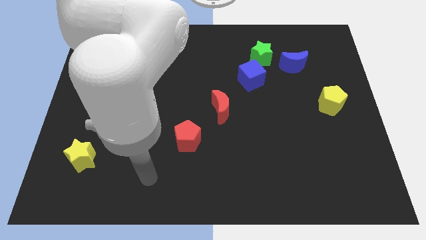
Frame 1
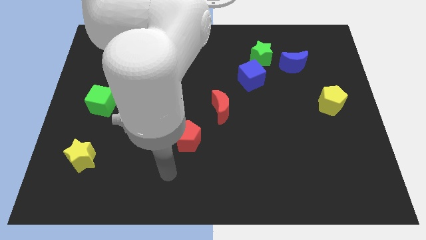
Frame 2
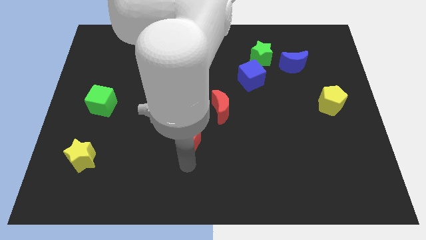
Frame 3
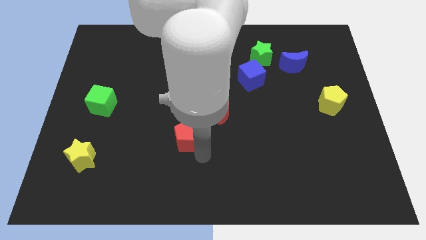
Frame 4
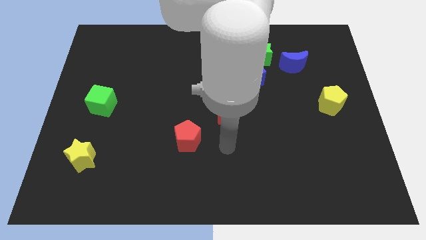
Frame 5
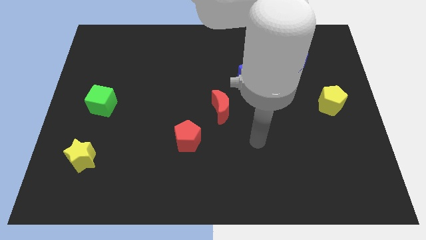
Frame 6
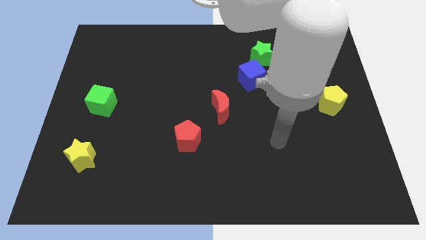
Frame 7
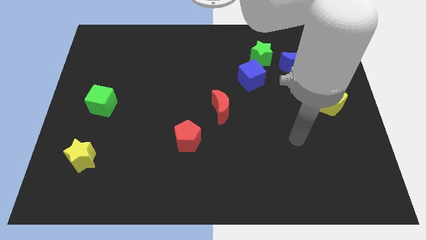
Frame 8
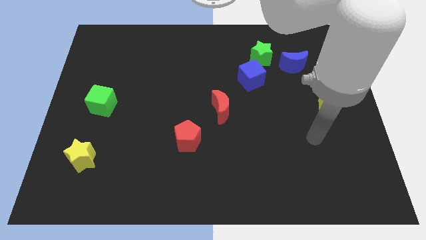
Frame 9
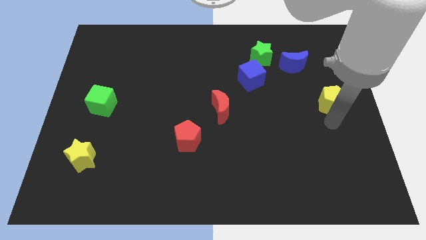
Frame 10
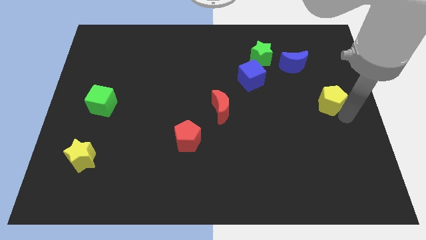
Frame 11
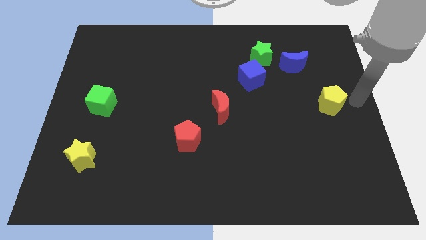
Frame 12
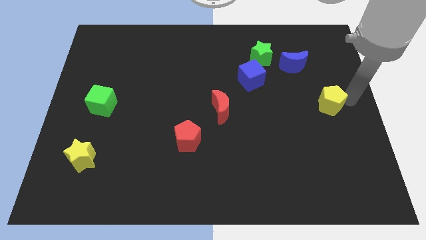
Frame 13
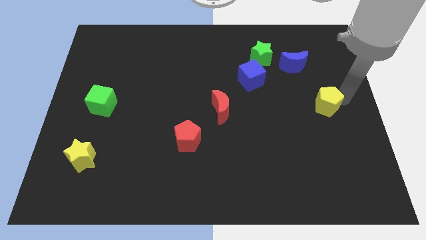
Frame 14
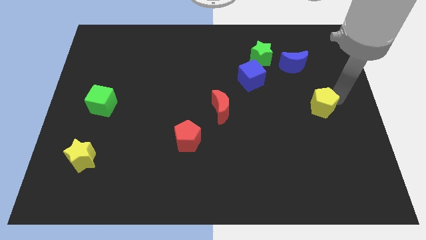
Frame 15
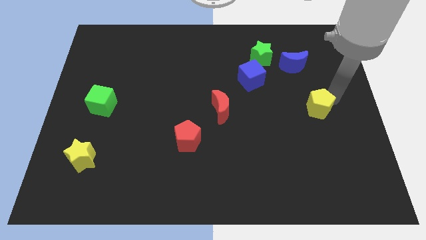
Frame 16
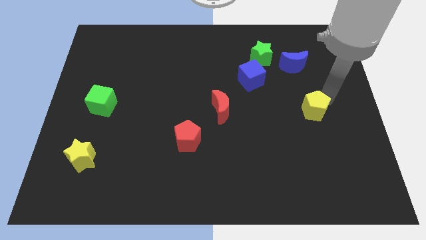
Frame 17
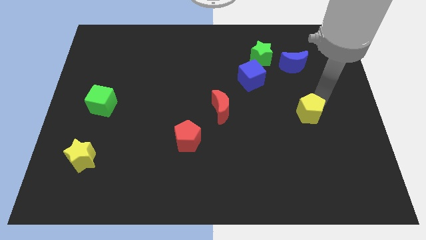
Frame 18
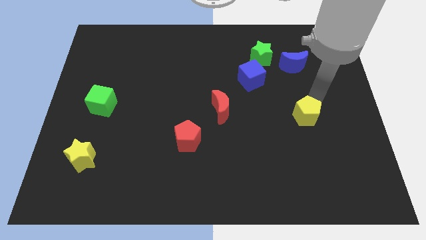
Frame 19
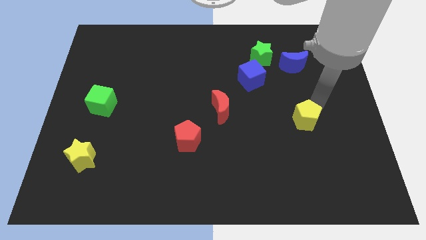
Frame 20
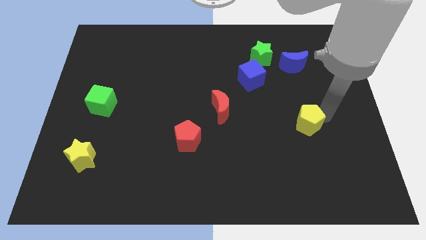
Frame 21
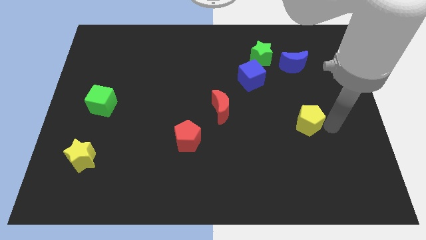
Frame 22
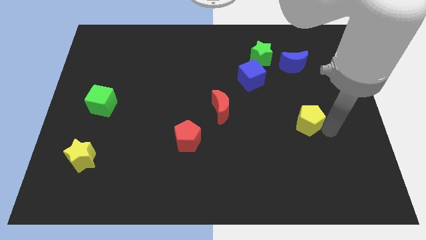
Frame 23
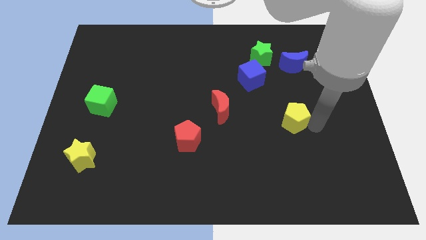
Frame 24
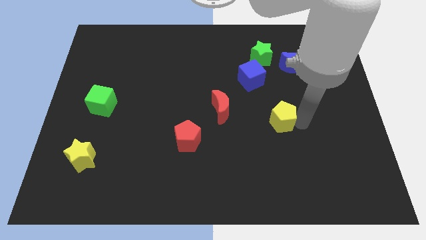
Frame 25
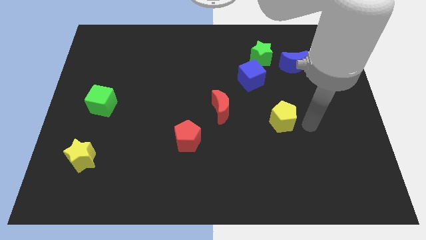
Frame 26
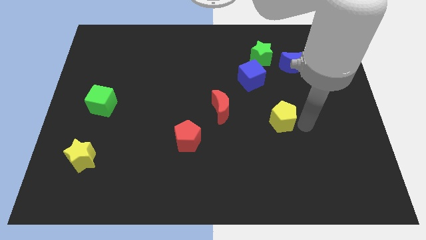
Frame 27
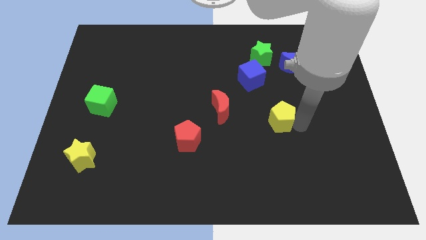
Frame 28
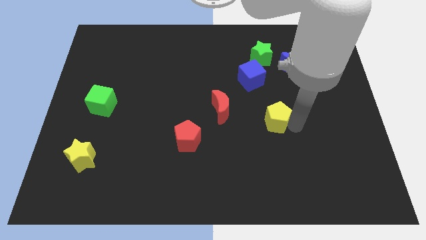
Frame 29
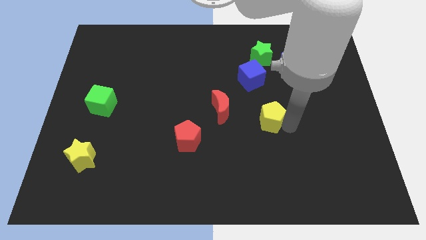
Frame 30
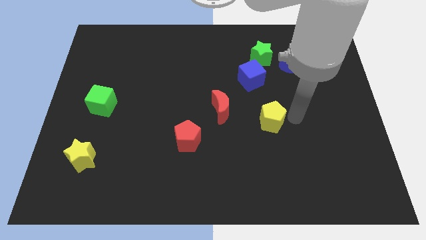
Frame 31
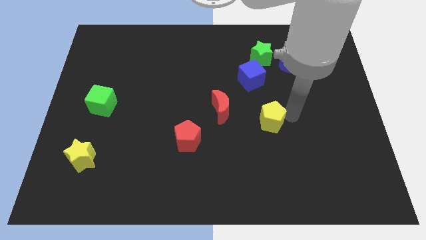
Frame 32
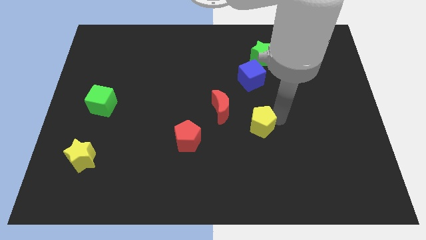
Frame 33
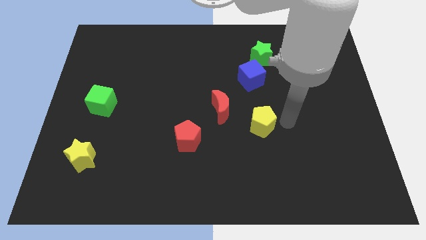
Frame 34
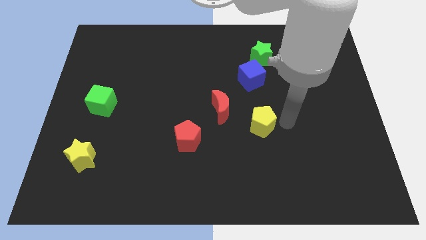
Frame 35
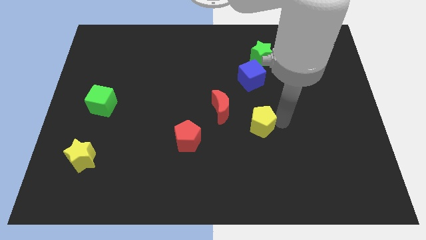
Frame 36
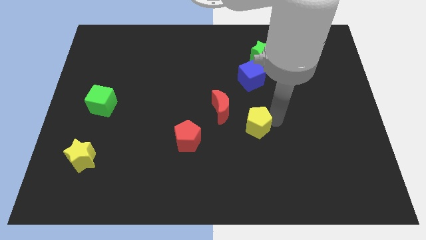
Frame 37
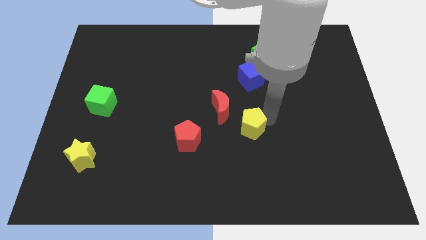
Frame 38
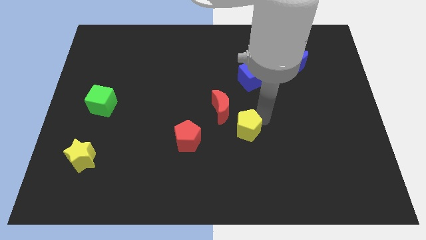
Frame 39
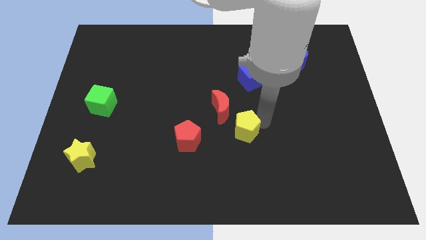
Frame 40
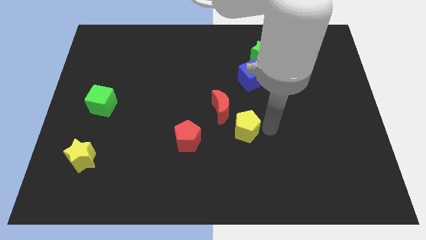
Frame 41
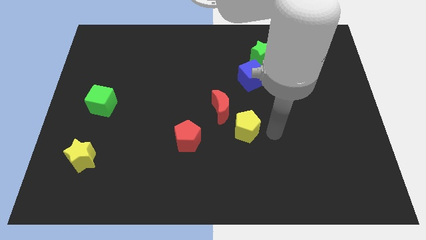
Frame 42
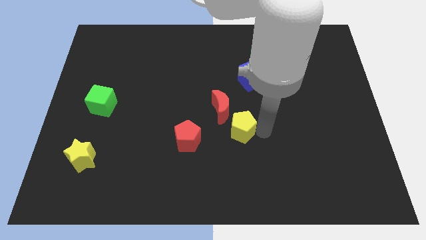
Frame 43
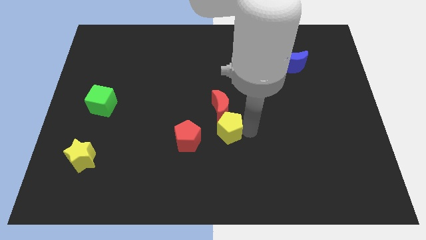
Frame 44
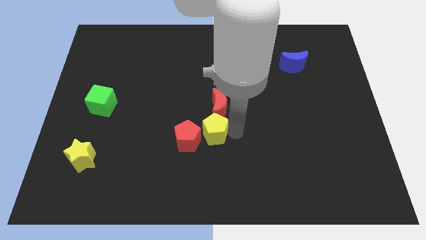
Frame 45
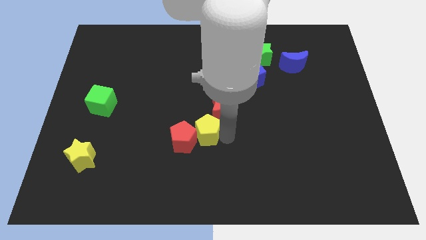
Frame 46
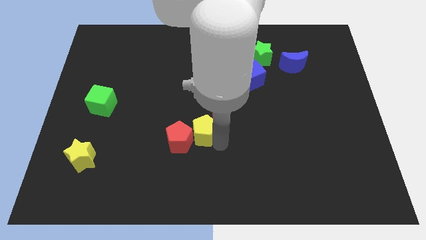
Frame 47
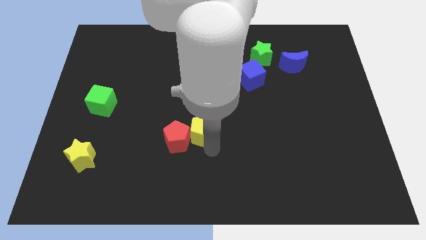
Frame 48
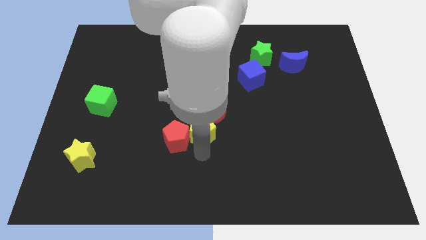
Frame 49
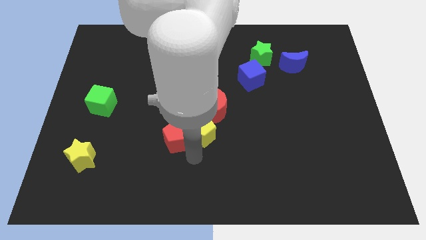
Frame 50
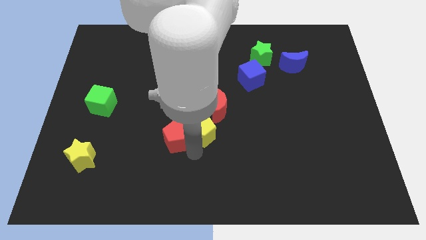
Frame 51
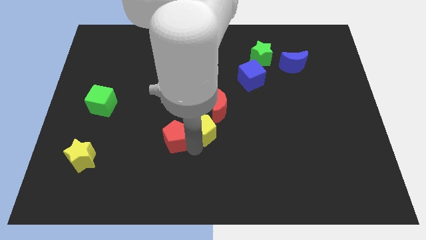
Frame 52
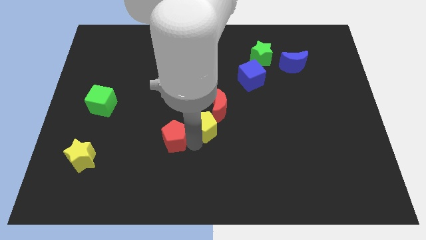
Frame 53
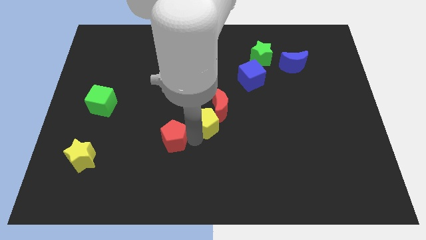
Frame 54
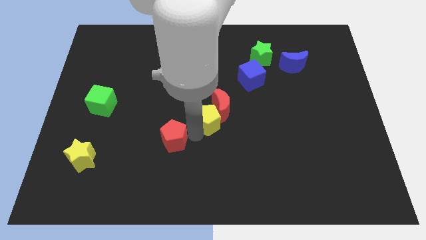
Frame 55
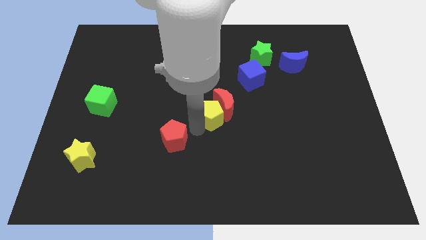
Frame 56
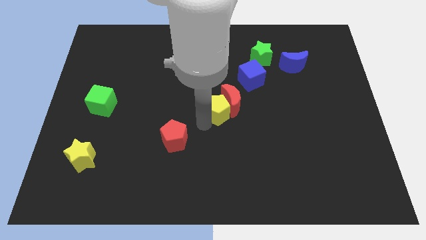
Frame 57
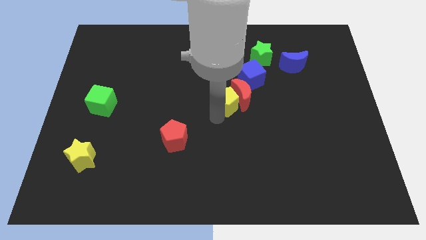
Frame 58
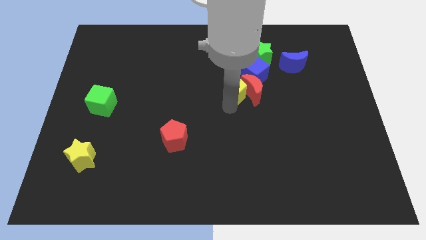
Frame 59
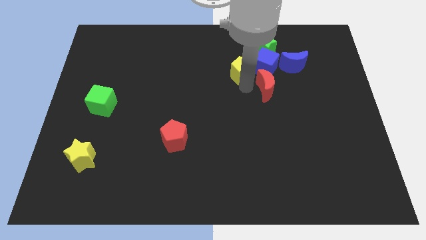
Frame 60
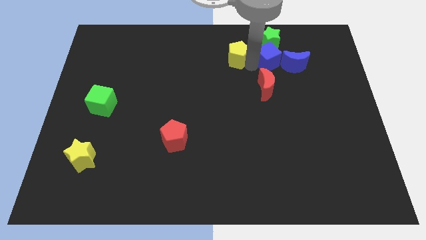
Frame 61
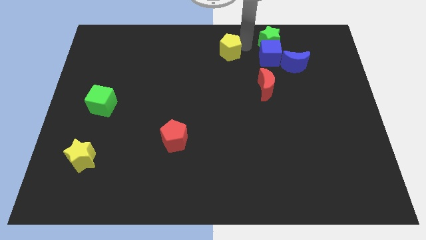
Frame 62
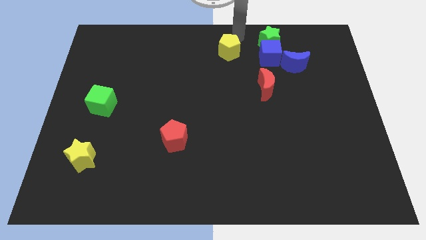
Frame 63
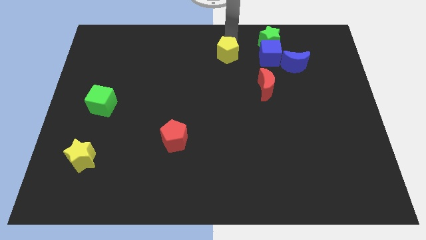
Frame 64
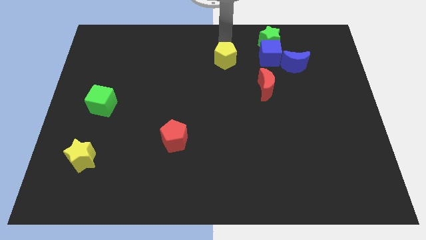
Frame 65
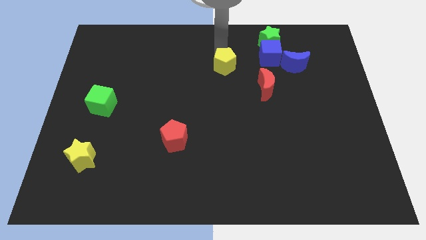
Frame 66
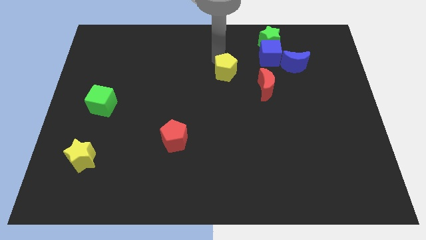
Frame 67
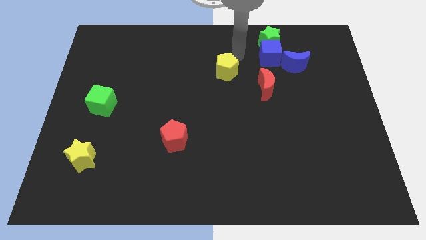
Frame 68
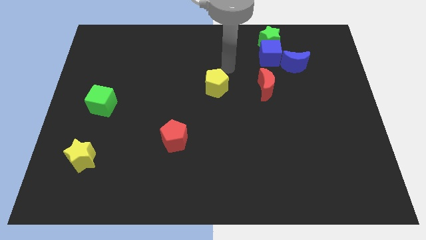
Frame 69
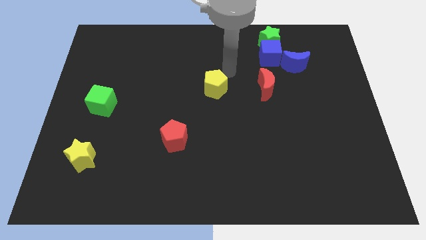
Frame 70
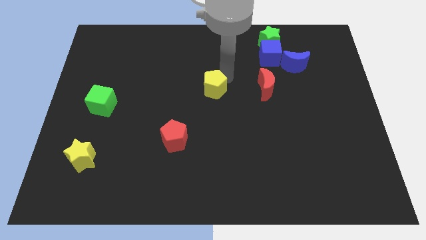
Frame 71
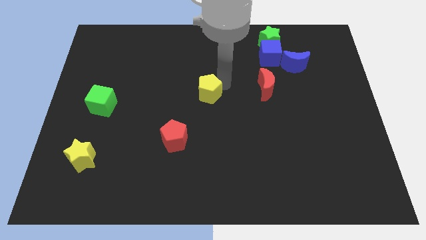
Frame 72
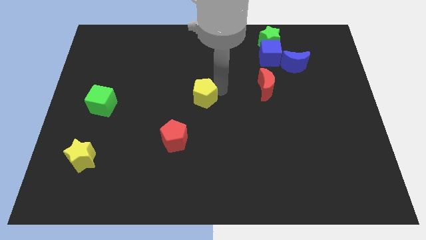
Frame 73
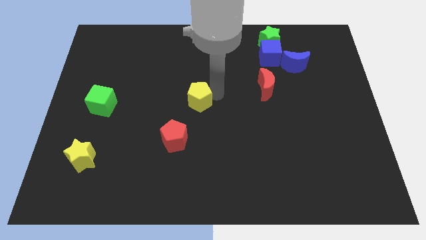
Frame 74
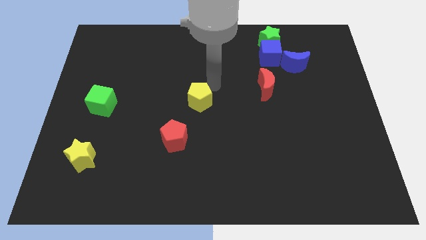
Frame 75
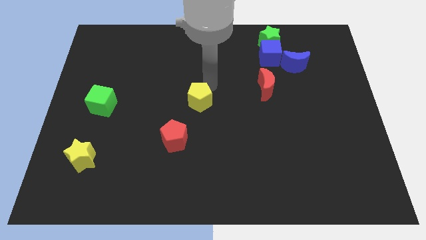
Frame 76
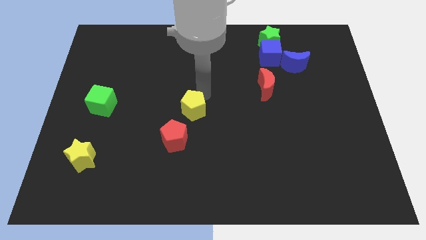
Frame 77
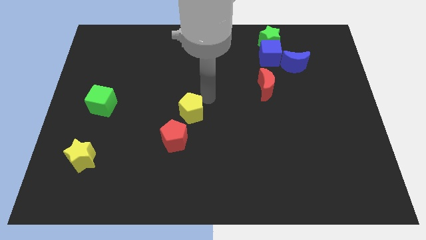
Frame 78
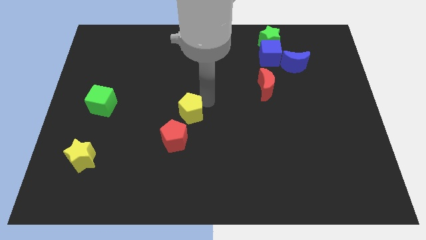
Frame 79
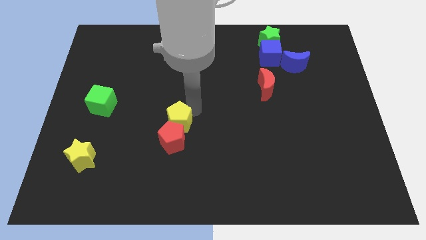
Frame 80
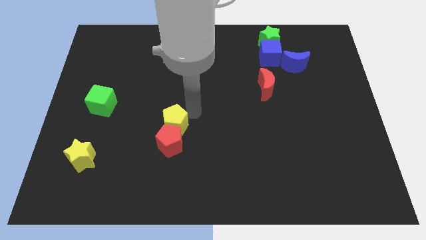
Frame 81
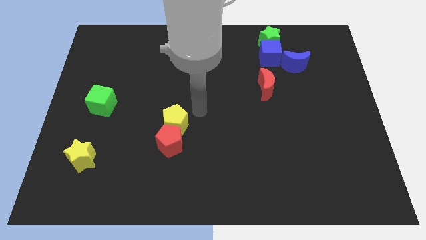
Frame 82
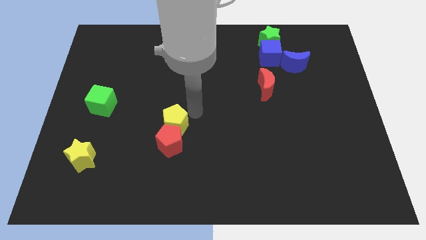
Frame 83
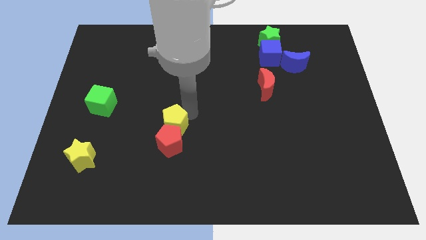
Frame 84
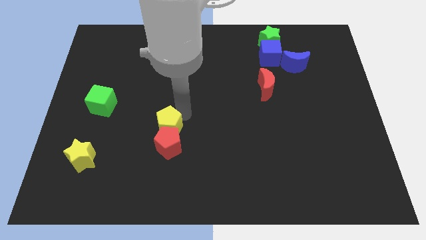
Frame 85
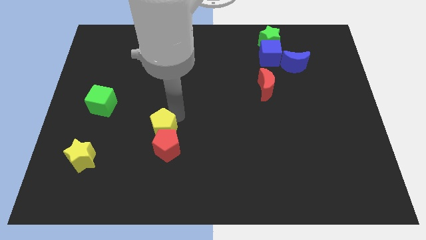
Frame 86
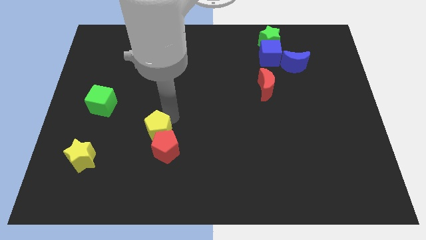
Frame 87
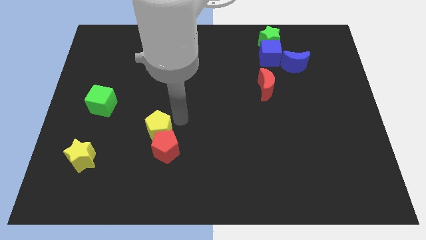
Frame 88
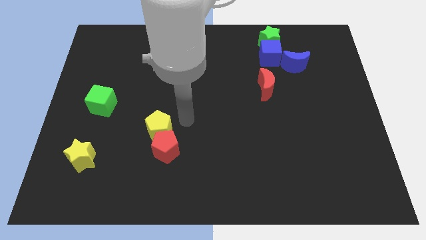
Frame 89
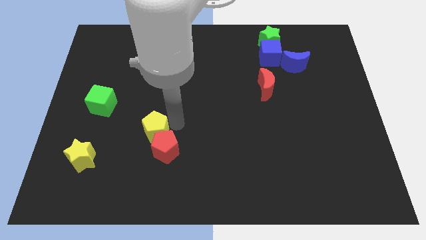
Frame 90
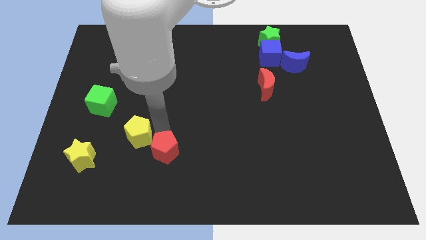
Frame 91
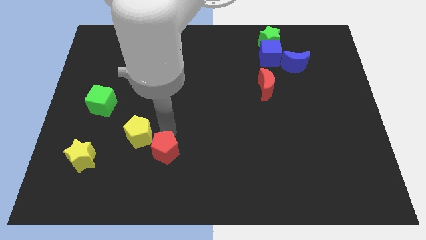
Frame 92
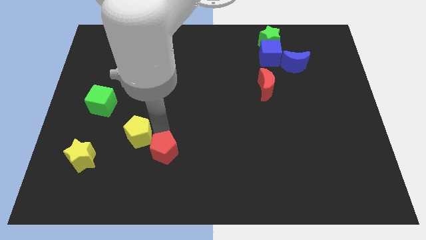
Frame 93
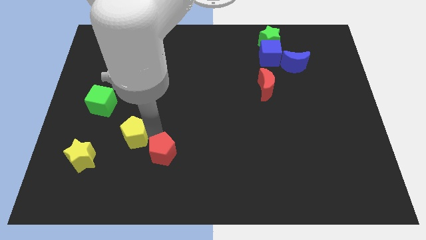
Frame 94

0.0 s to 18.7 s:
move the yellow pentagon diagonally up and to the right of the yellow star
